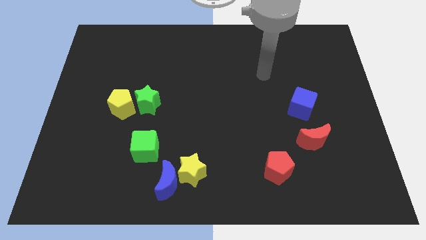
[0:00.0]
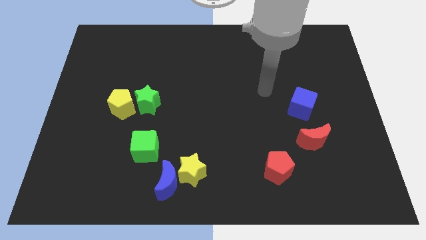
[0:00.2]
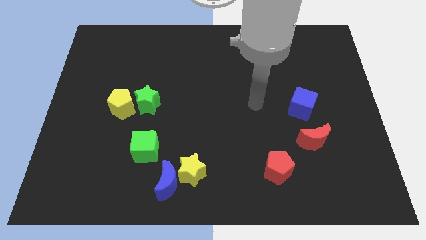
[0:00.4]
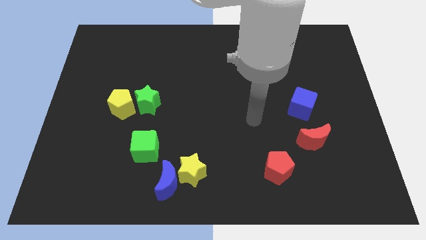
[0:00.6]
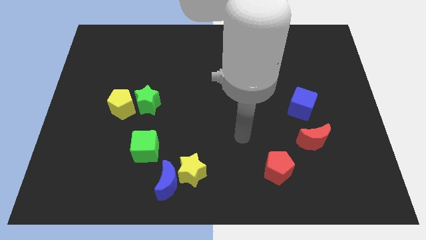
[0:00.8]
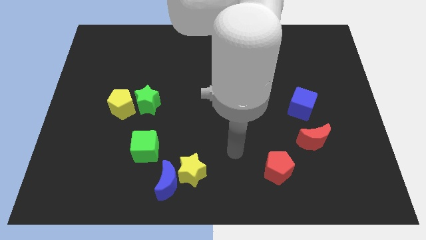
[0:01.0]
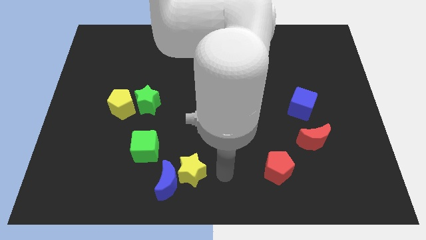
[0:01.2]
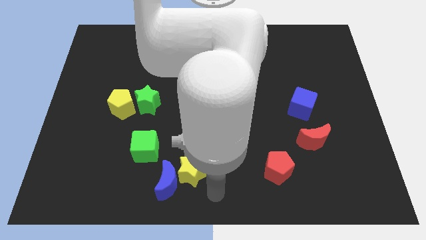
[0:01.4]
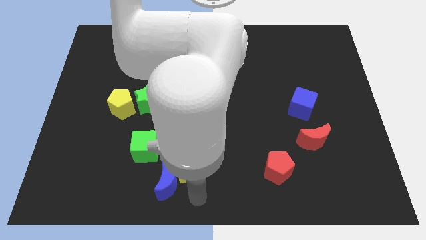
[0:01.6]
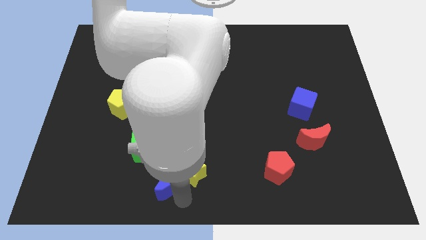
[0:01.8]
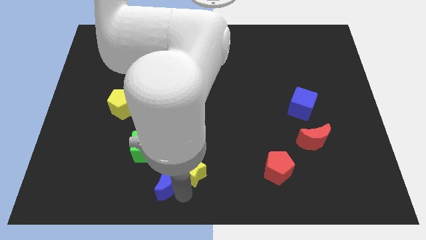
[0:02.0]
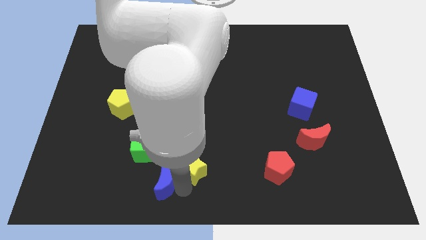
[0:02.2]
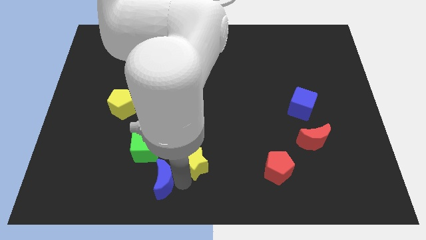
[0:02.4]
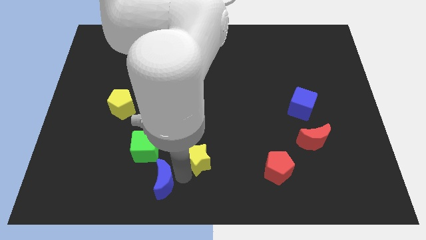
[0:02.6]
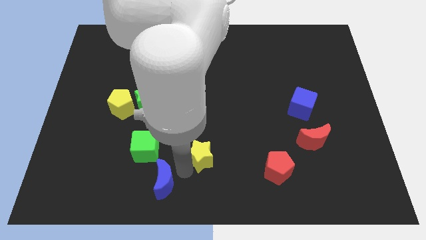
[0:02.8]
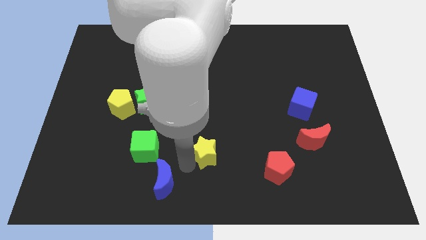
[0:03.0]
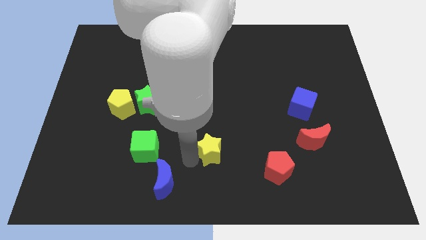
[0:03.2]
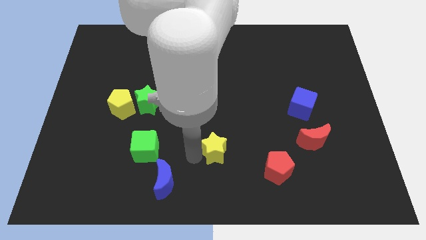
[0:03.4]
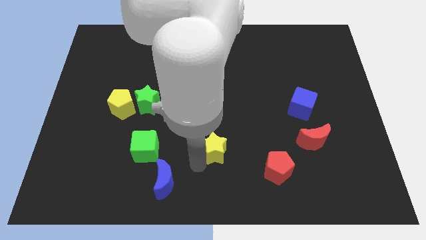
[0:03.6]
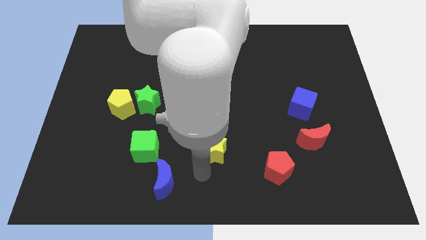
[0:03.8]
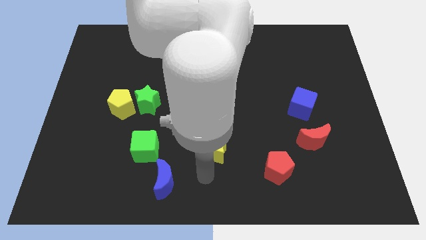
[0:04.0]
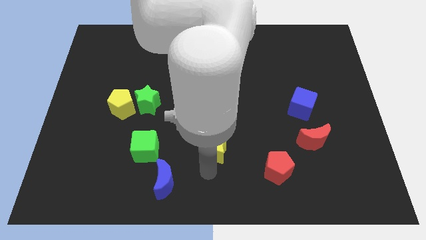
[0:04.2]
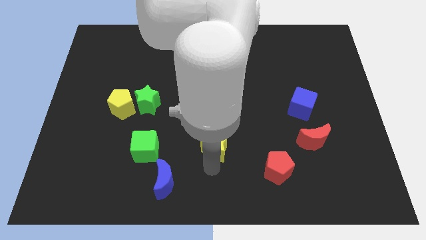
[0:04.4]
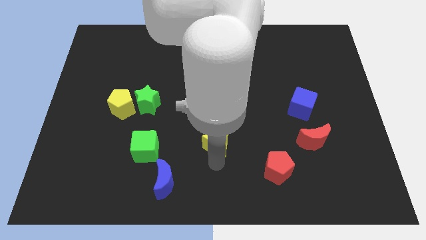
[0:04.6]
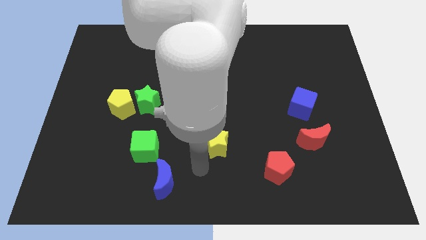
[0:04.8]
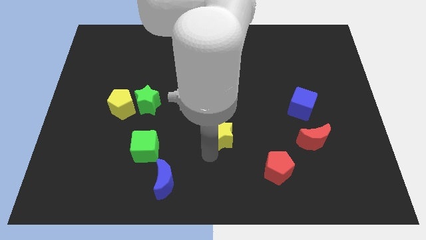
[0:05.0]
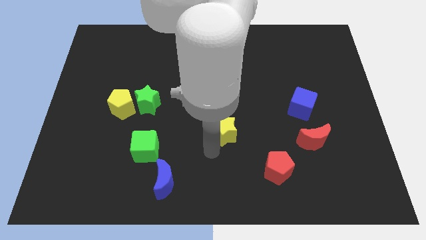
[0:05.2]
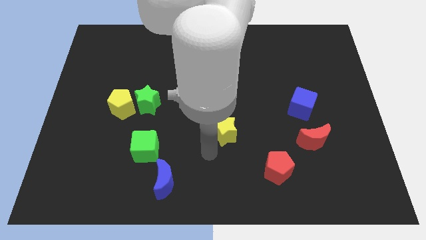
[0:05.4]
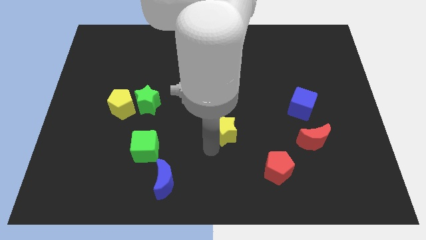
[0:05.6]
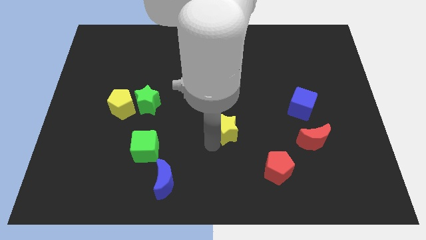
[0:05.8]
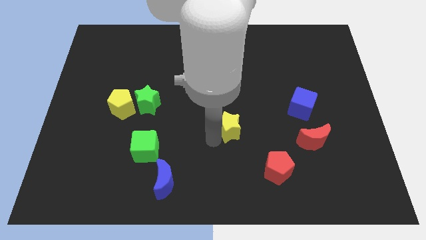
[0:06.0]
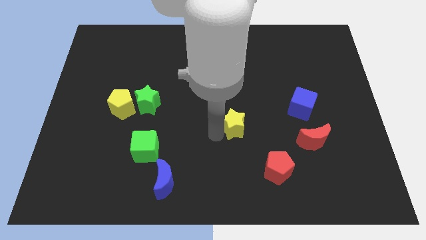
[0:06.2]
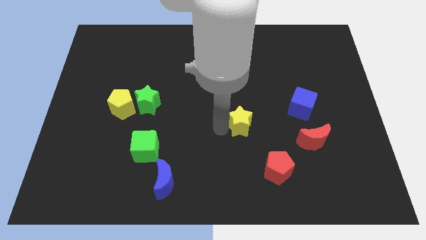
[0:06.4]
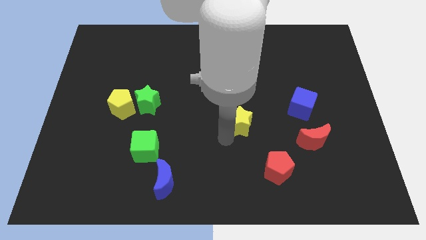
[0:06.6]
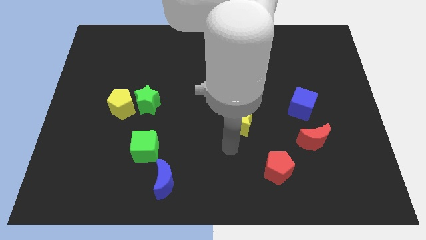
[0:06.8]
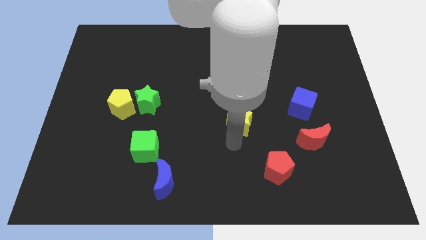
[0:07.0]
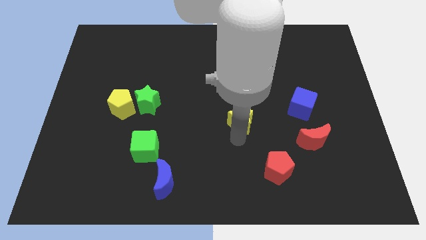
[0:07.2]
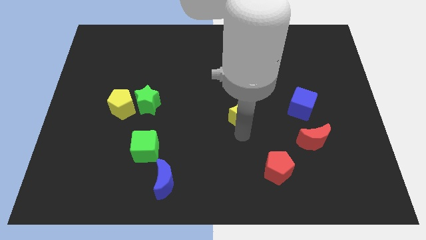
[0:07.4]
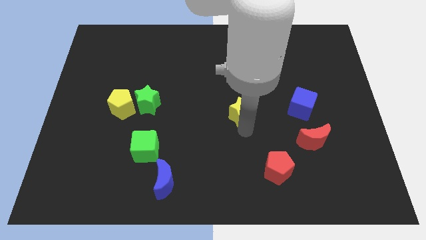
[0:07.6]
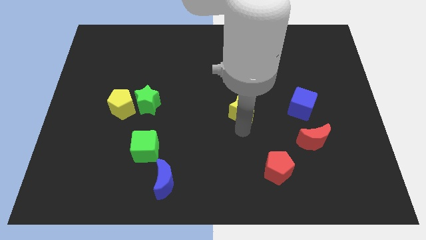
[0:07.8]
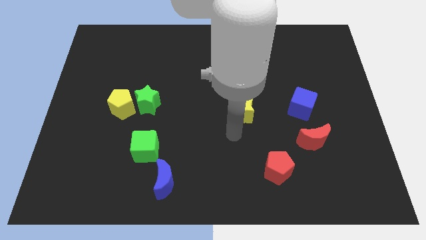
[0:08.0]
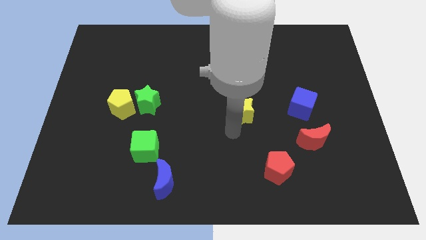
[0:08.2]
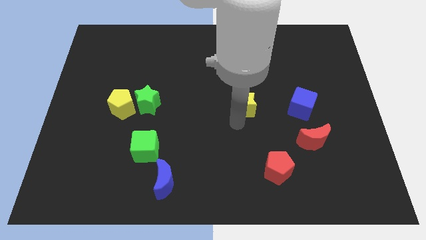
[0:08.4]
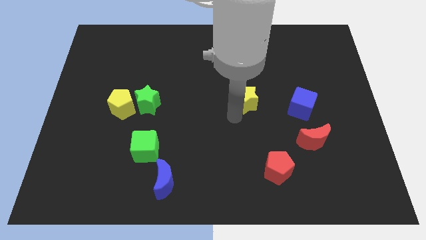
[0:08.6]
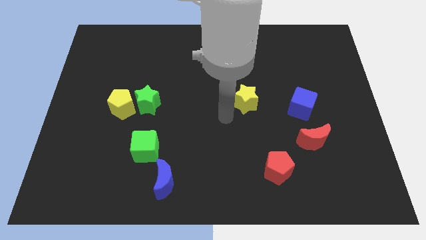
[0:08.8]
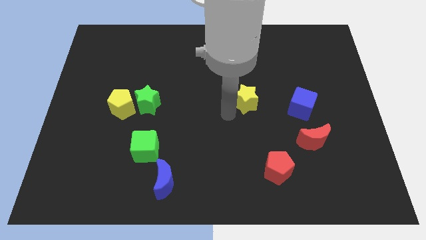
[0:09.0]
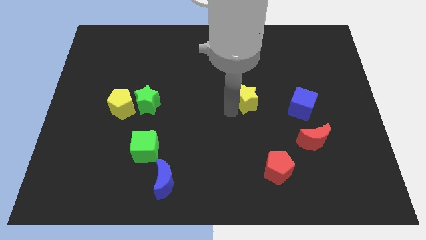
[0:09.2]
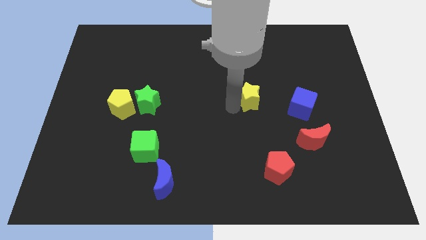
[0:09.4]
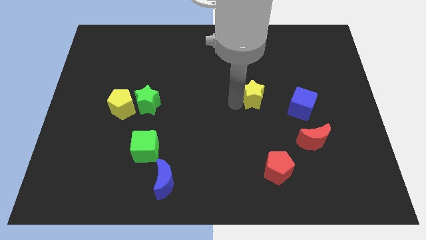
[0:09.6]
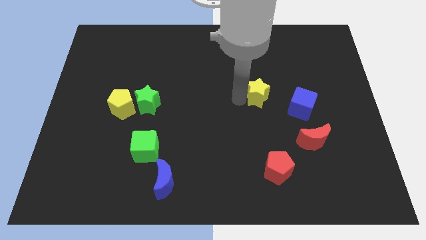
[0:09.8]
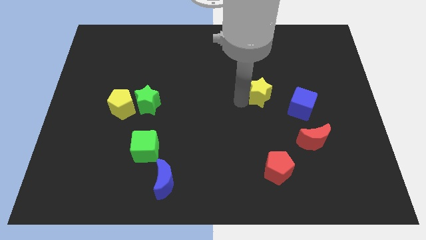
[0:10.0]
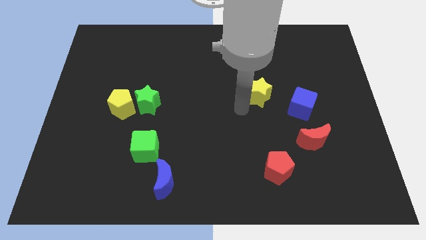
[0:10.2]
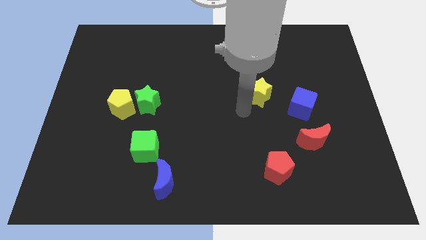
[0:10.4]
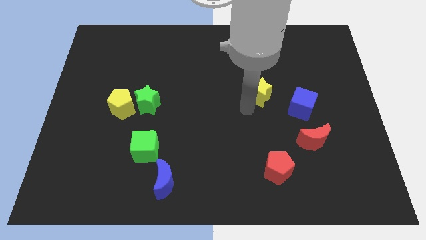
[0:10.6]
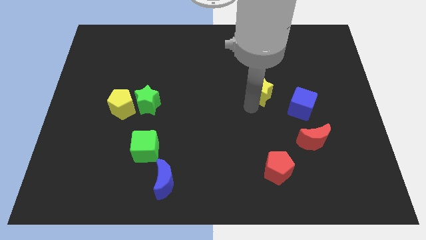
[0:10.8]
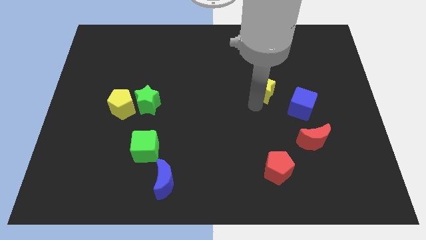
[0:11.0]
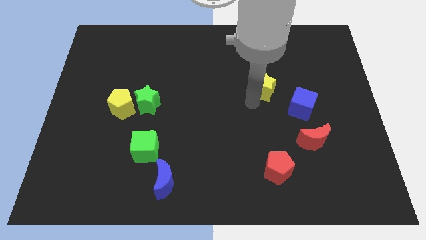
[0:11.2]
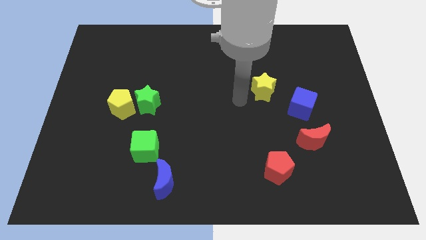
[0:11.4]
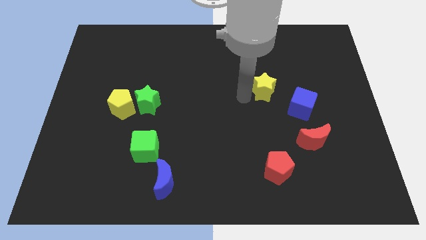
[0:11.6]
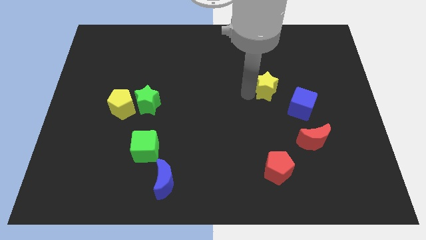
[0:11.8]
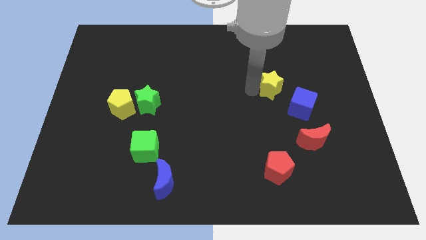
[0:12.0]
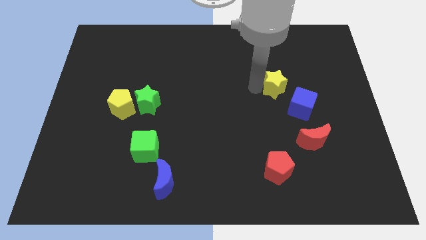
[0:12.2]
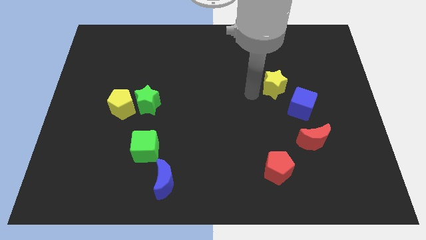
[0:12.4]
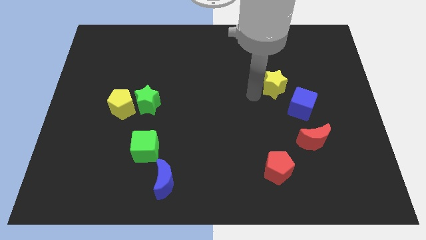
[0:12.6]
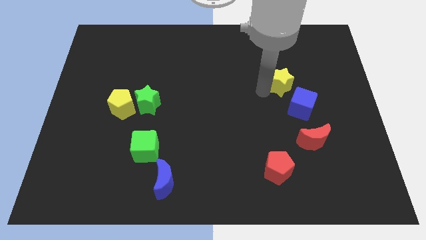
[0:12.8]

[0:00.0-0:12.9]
slide the yellow star above the blue cube

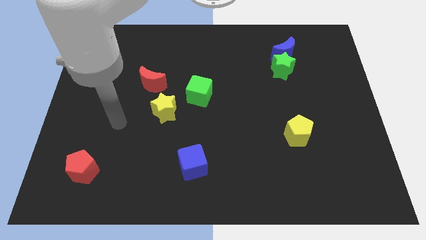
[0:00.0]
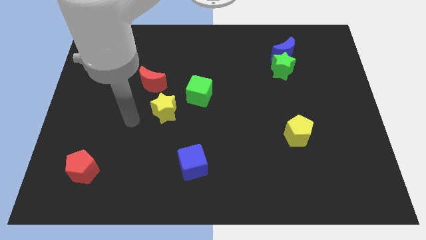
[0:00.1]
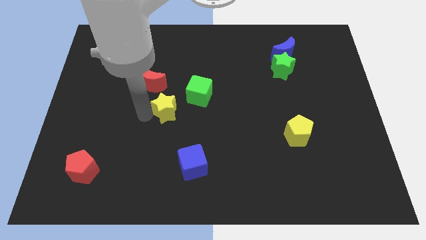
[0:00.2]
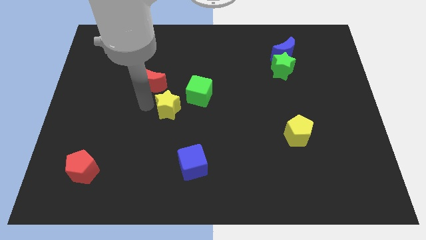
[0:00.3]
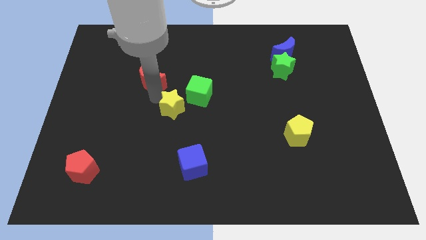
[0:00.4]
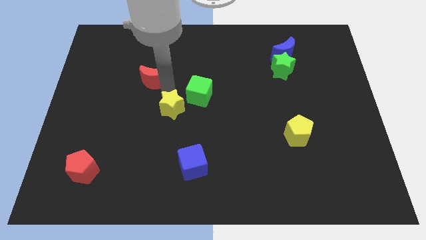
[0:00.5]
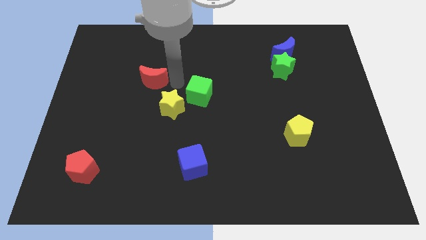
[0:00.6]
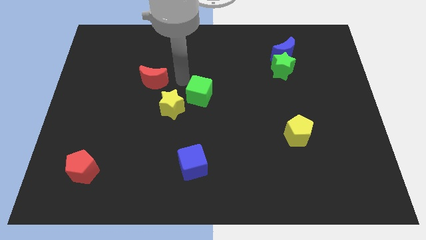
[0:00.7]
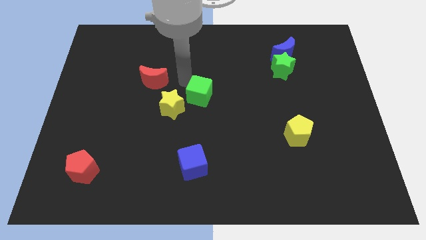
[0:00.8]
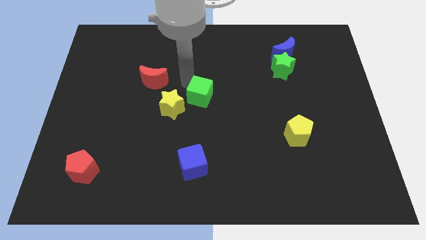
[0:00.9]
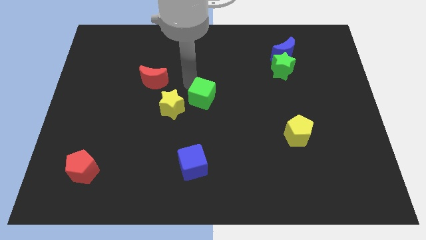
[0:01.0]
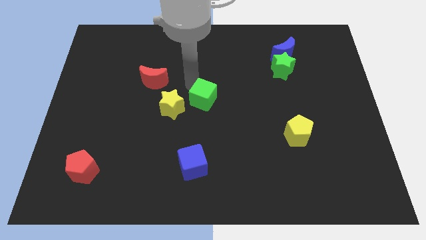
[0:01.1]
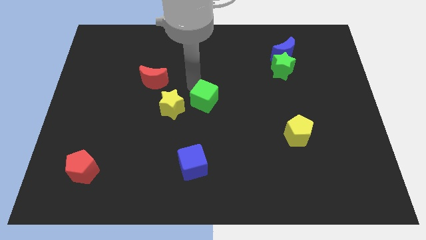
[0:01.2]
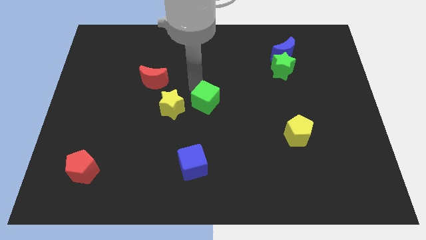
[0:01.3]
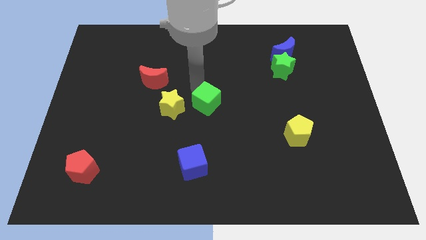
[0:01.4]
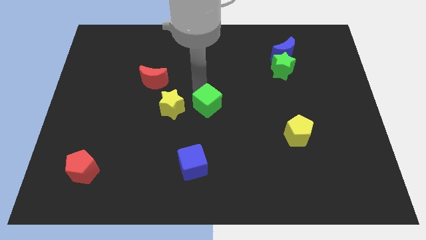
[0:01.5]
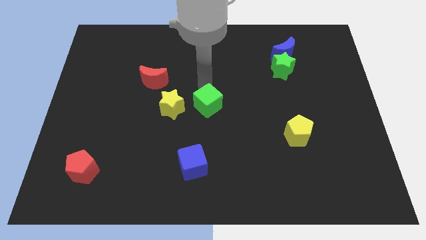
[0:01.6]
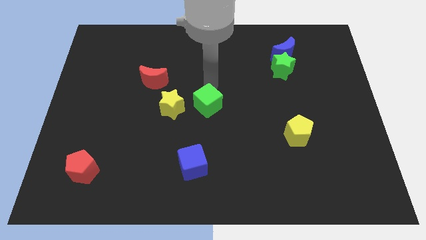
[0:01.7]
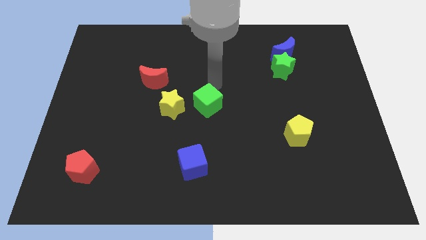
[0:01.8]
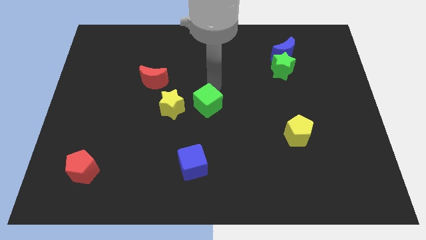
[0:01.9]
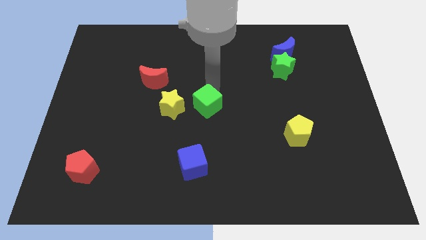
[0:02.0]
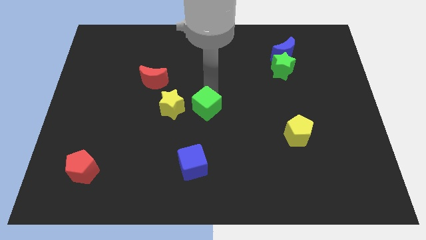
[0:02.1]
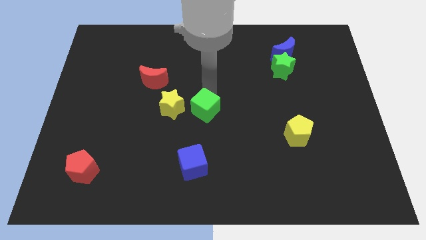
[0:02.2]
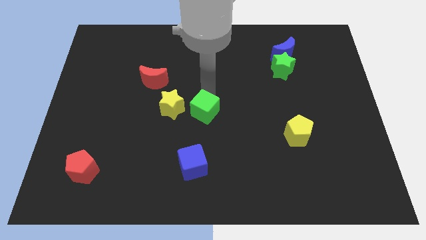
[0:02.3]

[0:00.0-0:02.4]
move the green cube to the bottom right of the yellow star
